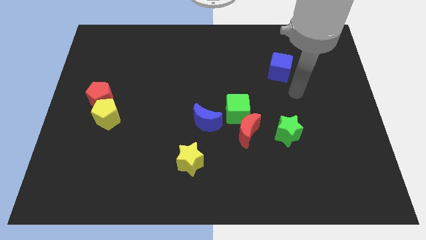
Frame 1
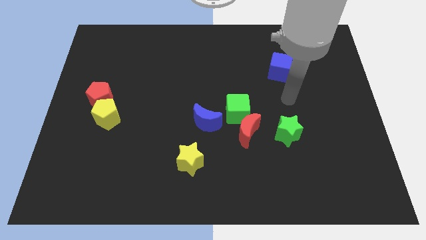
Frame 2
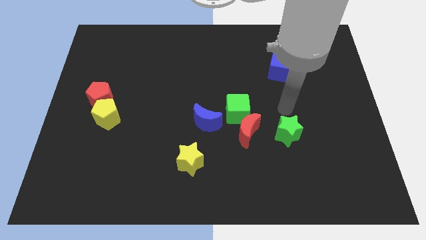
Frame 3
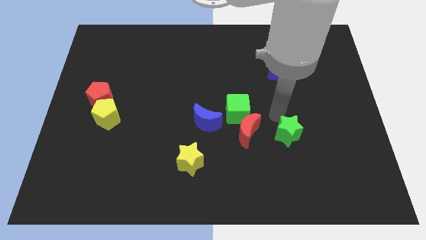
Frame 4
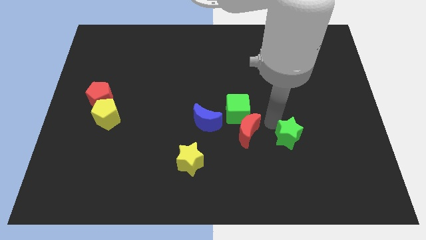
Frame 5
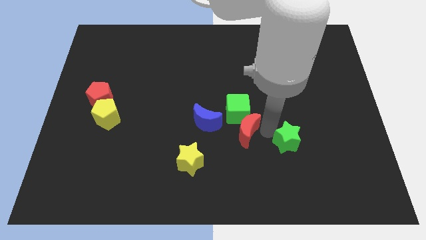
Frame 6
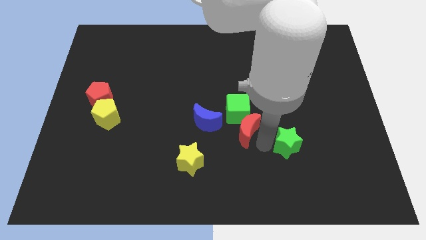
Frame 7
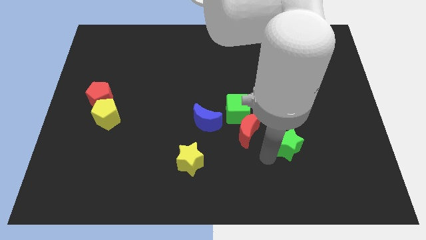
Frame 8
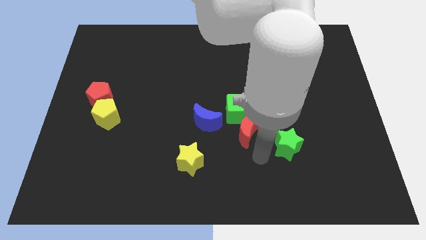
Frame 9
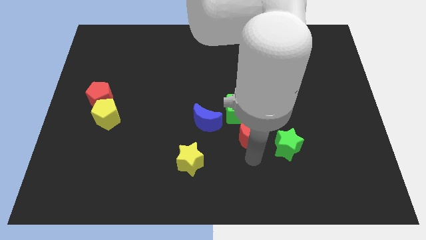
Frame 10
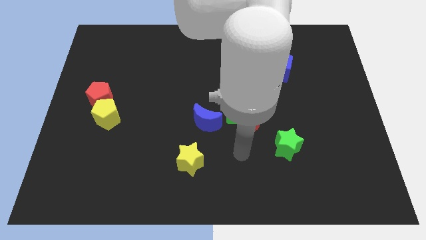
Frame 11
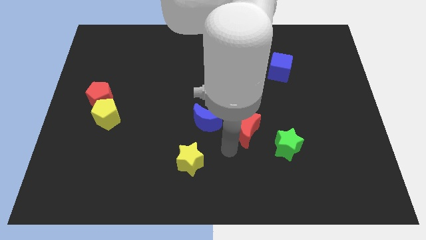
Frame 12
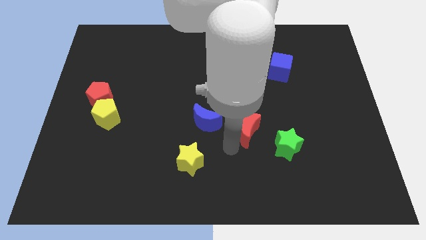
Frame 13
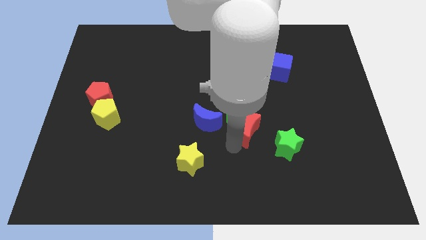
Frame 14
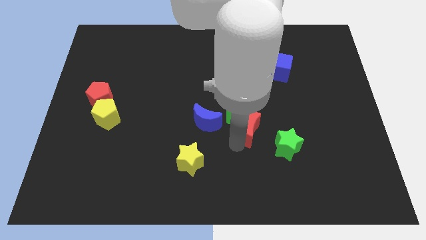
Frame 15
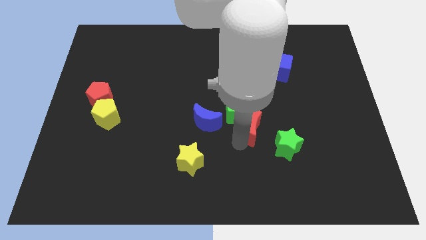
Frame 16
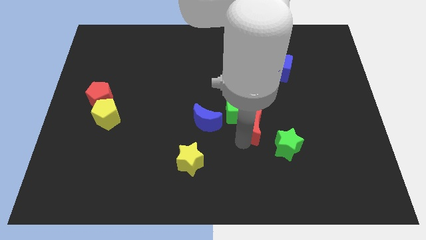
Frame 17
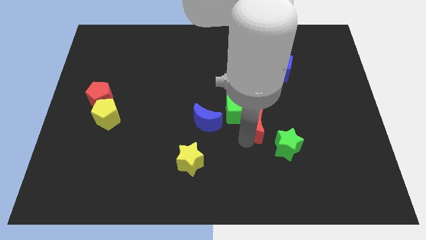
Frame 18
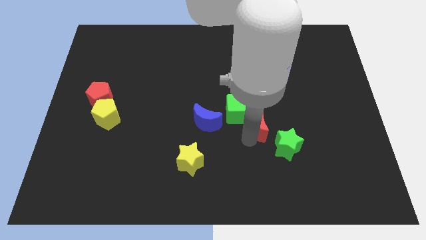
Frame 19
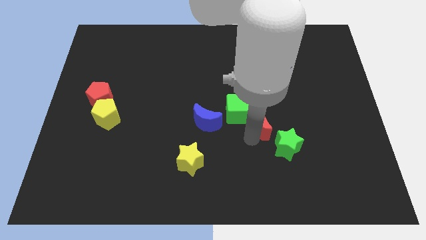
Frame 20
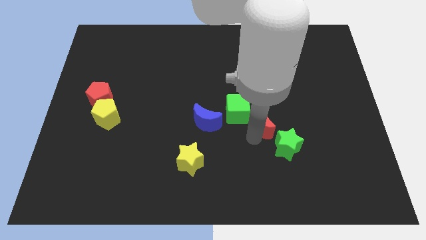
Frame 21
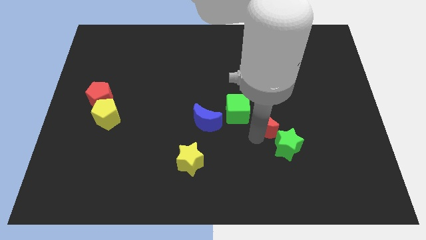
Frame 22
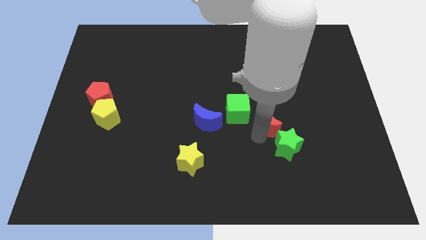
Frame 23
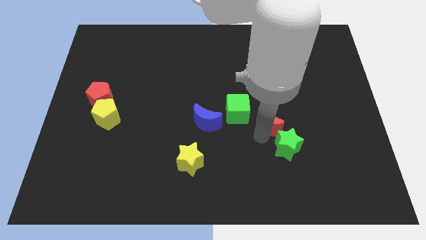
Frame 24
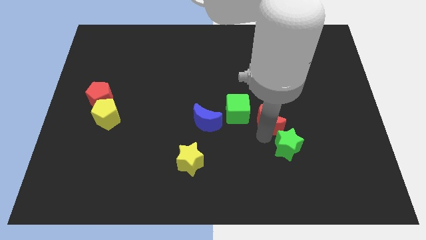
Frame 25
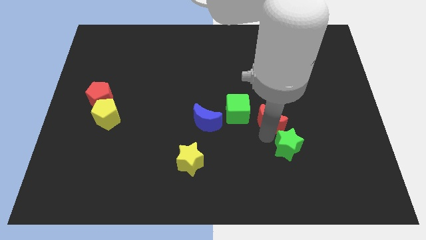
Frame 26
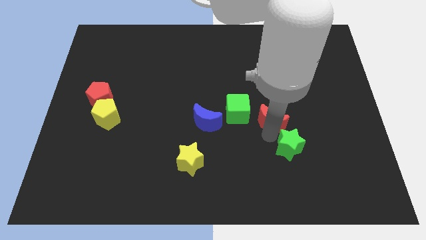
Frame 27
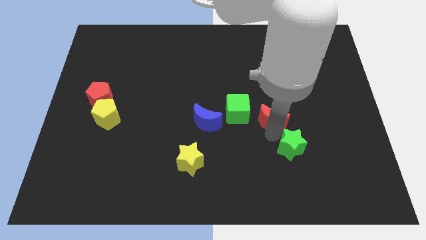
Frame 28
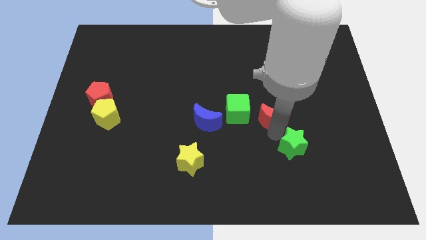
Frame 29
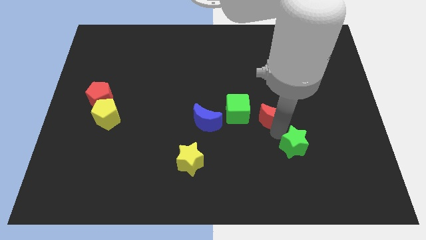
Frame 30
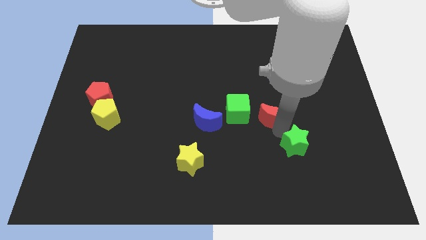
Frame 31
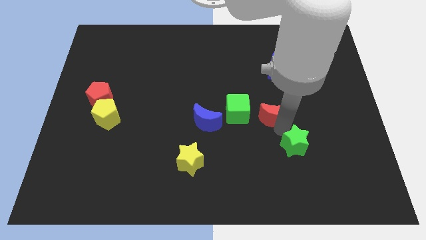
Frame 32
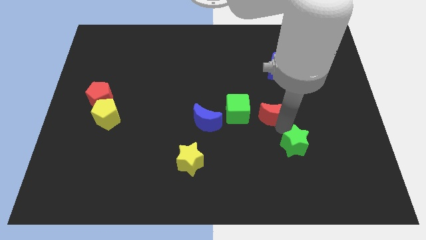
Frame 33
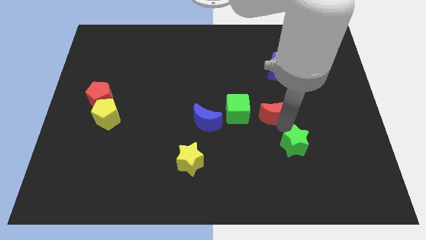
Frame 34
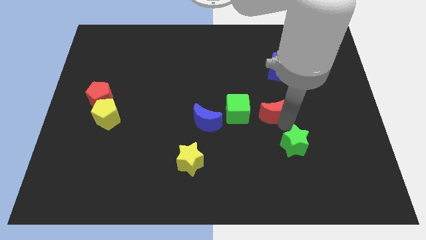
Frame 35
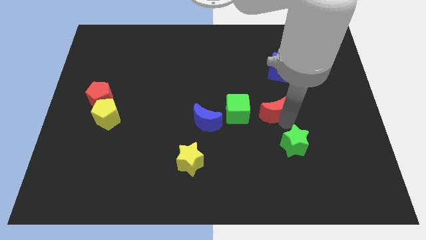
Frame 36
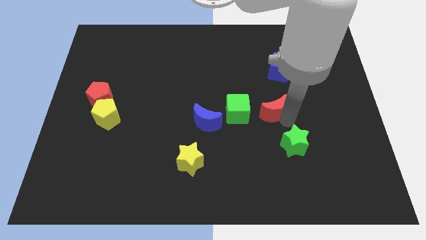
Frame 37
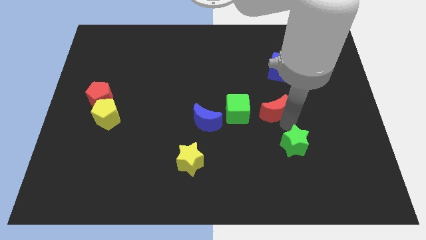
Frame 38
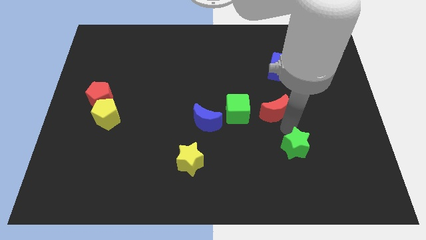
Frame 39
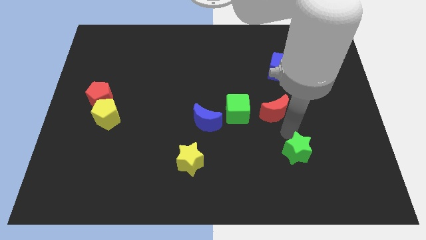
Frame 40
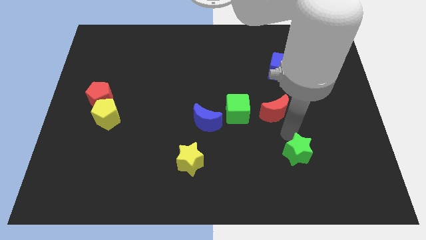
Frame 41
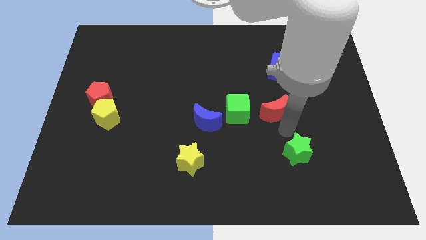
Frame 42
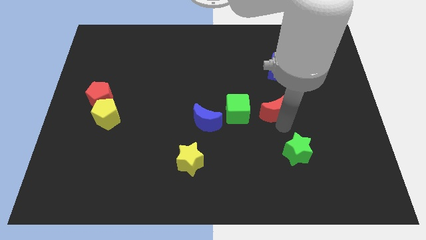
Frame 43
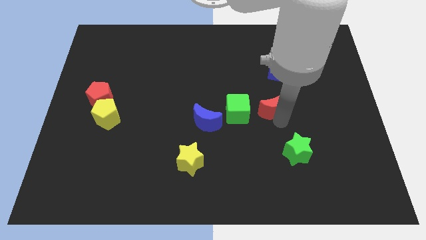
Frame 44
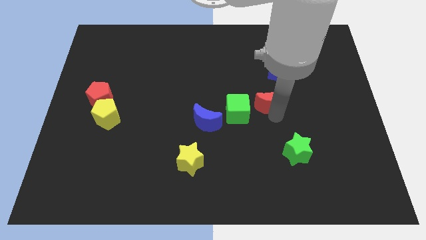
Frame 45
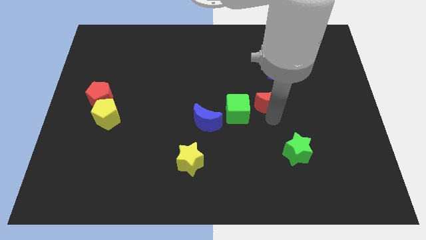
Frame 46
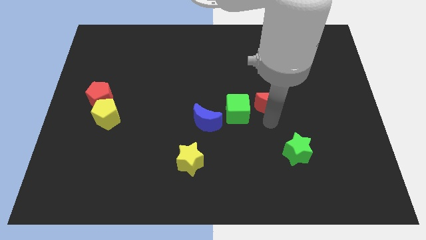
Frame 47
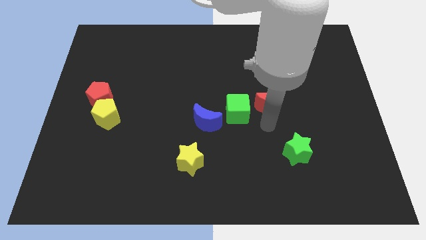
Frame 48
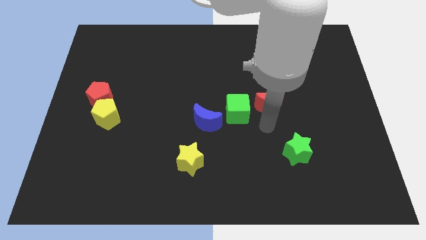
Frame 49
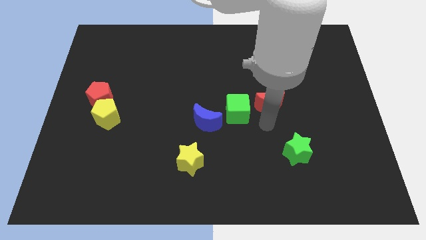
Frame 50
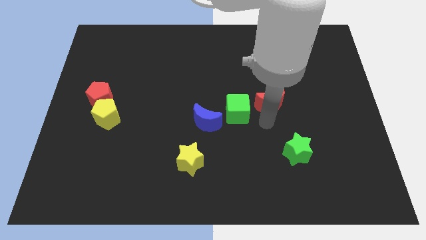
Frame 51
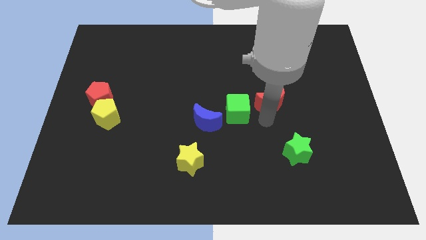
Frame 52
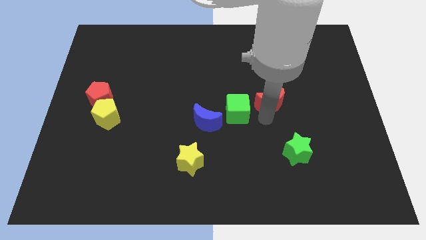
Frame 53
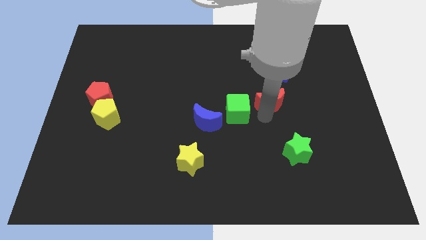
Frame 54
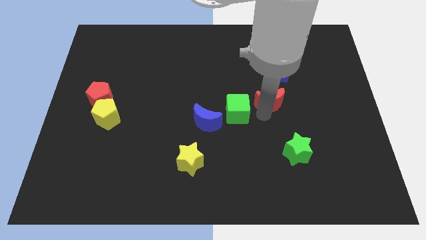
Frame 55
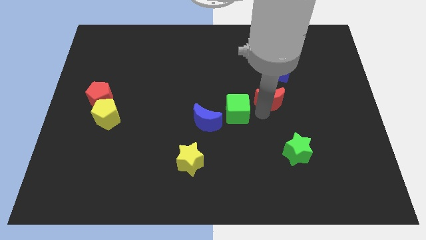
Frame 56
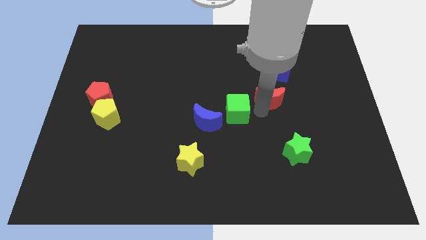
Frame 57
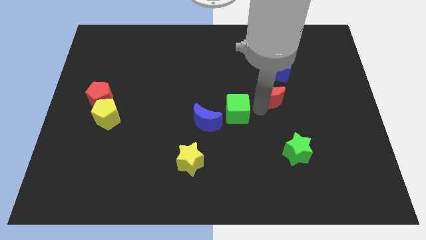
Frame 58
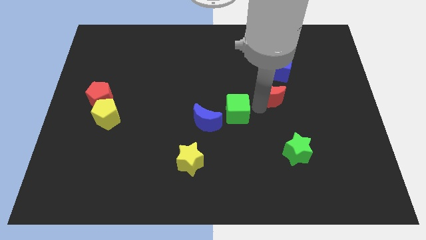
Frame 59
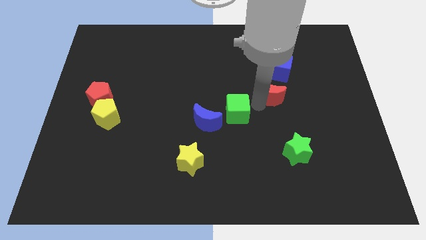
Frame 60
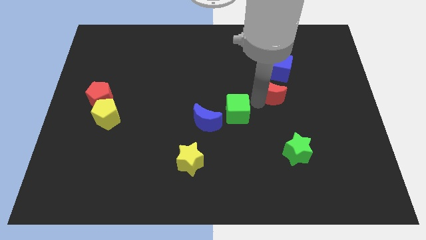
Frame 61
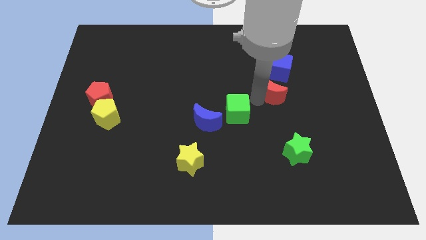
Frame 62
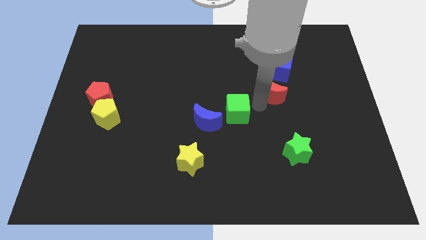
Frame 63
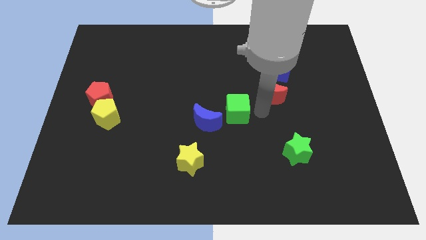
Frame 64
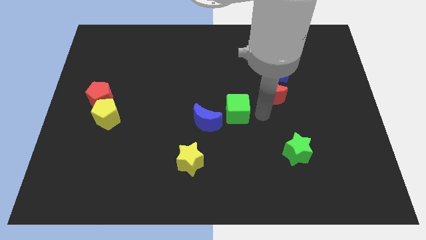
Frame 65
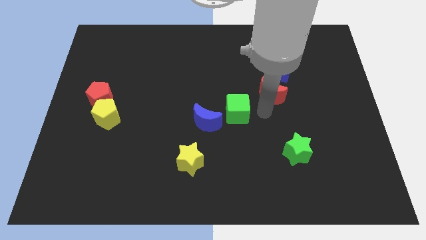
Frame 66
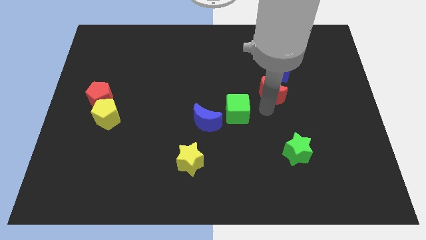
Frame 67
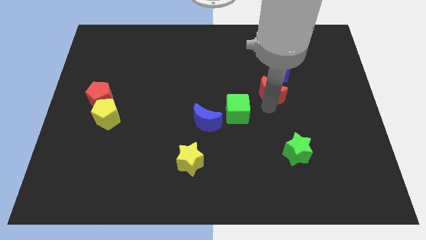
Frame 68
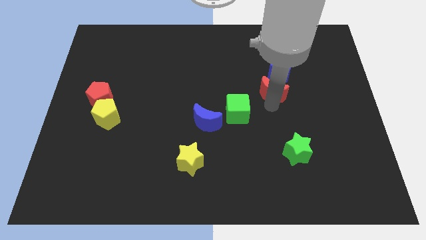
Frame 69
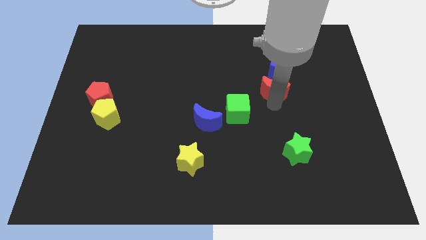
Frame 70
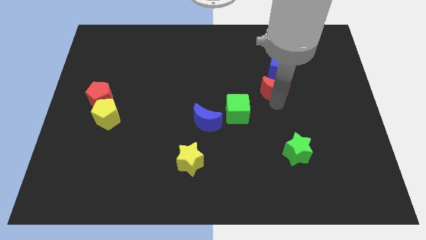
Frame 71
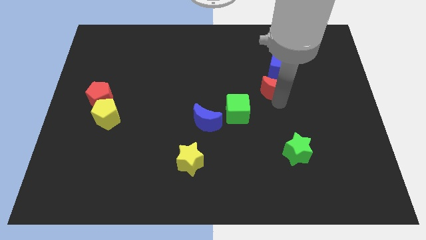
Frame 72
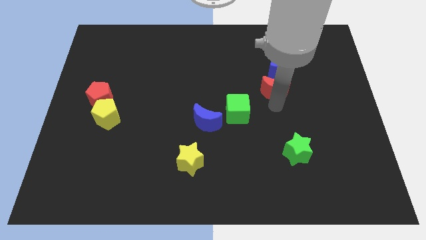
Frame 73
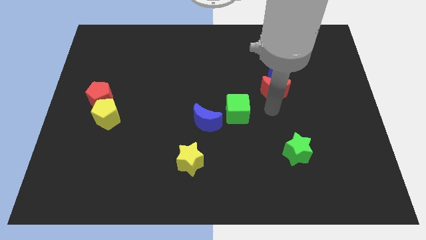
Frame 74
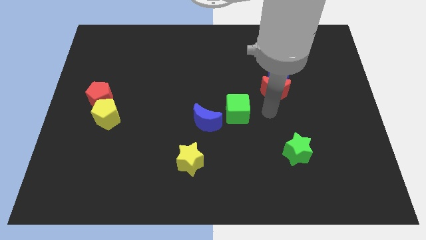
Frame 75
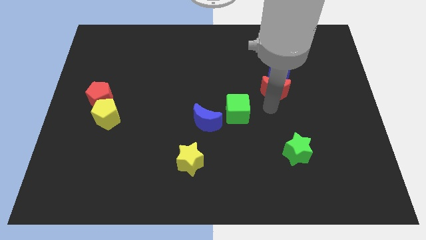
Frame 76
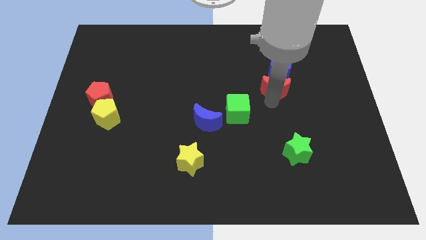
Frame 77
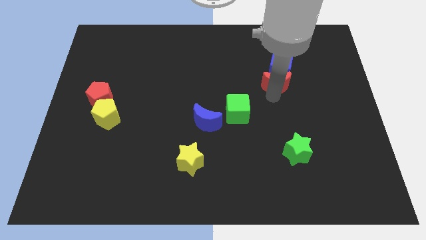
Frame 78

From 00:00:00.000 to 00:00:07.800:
put the red moon close to the blue cube
